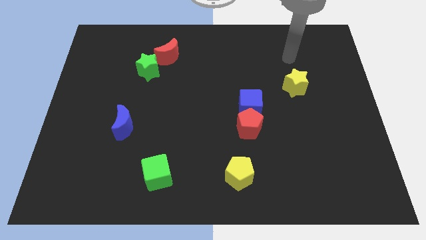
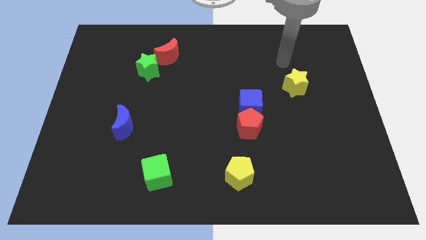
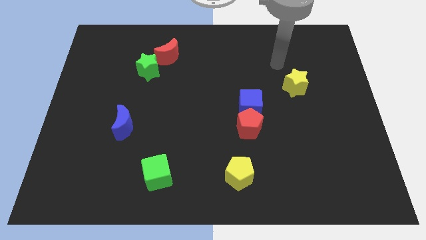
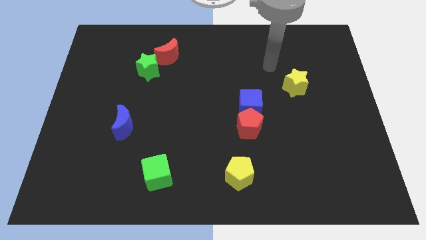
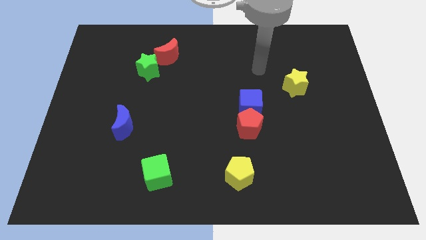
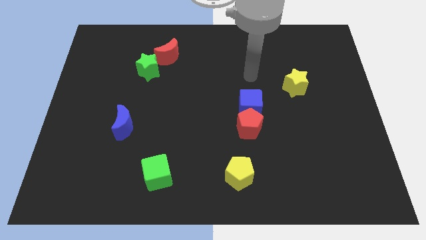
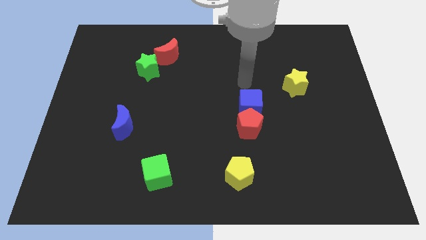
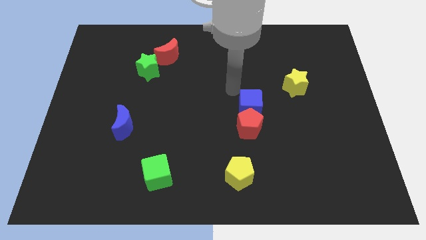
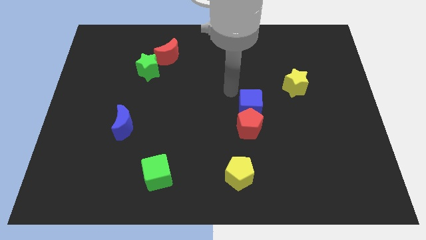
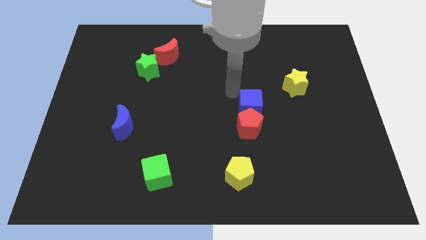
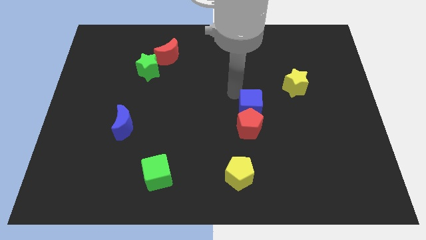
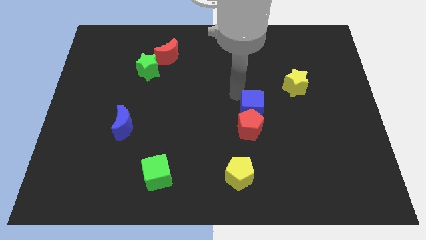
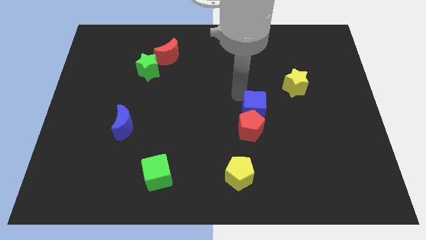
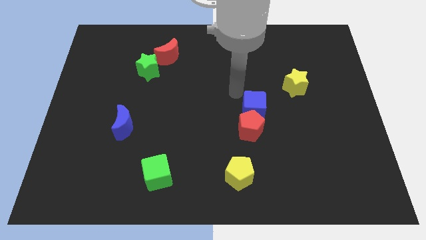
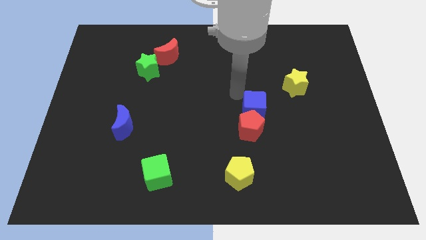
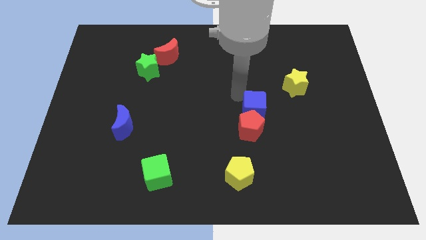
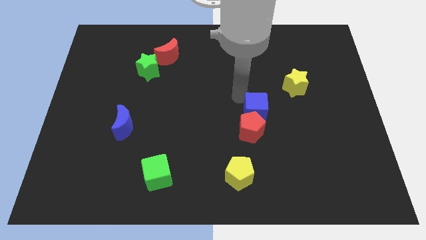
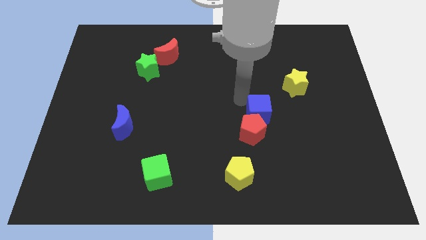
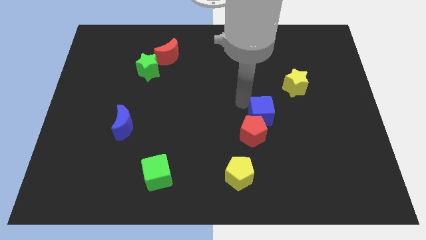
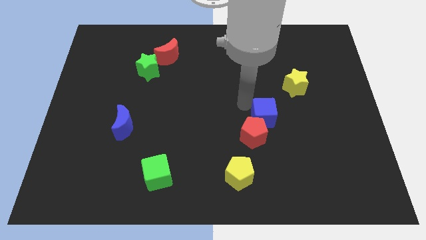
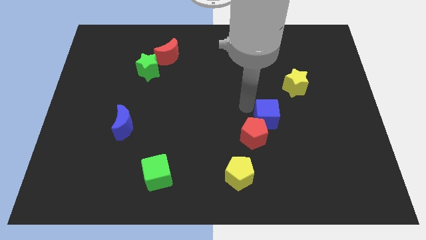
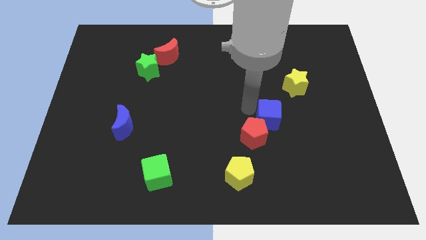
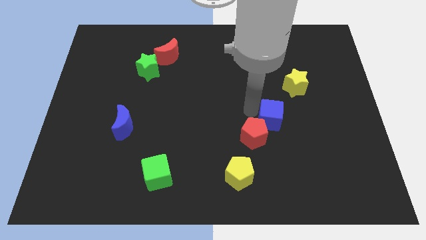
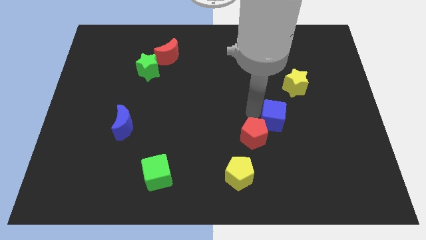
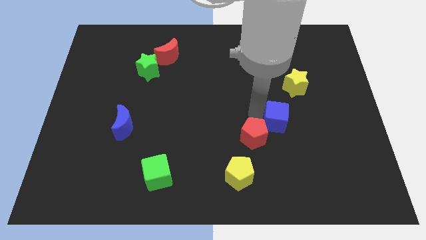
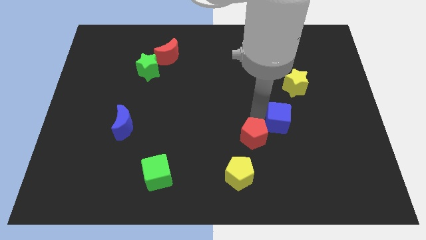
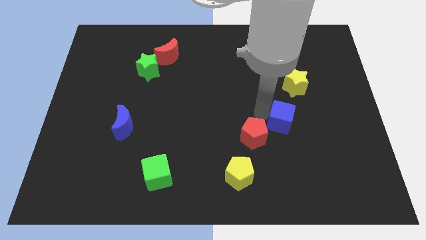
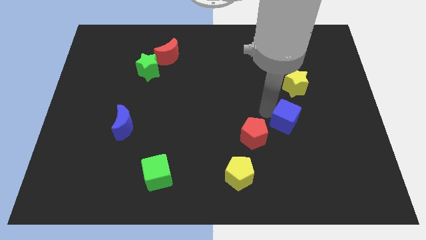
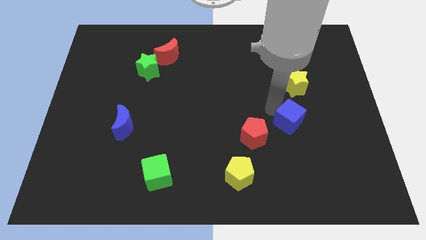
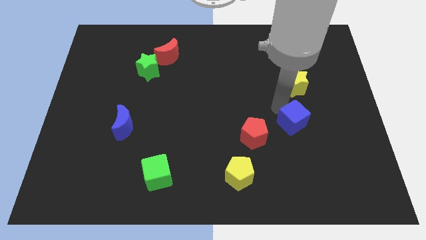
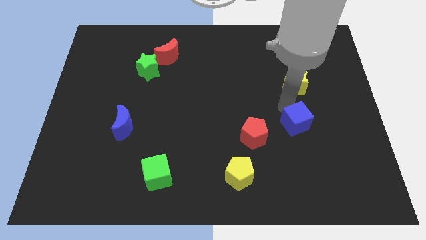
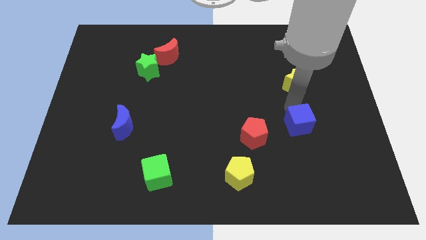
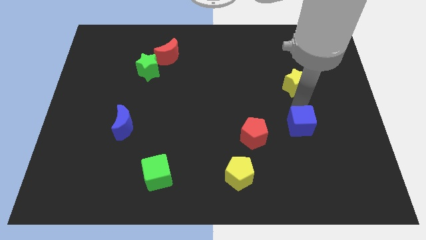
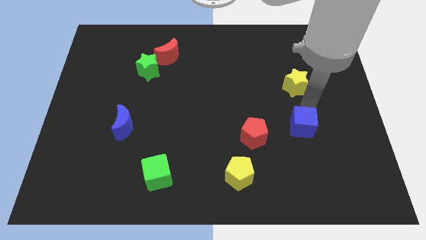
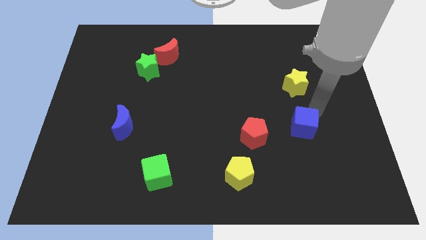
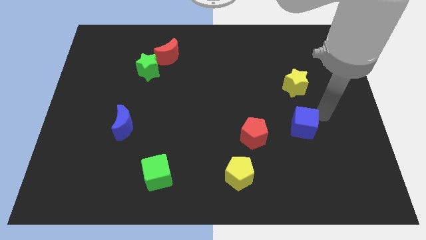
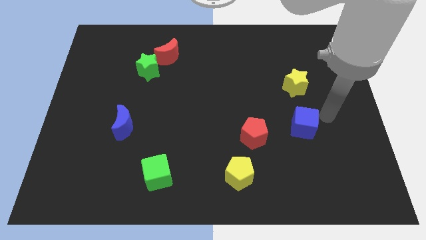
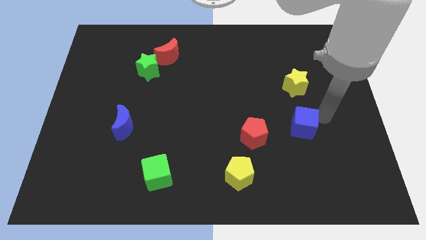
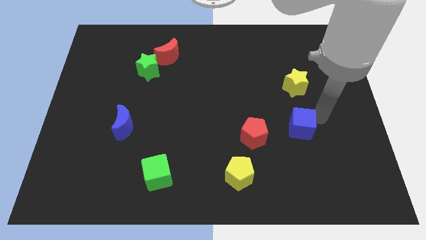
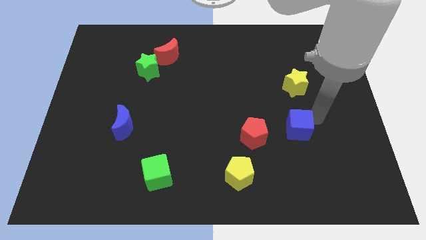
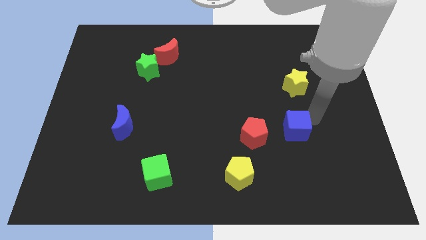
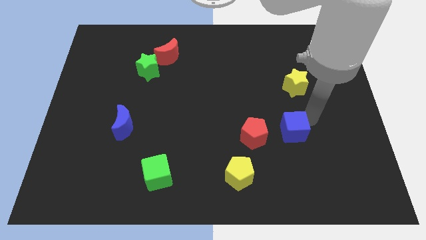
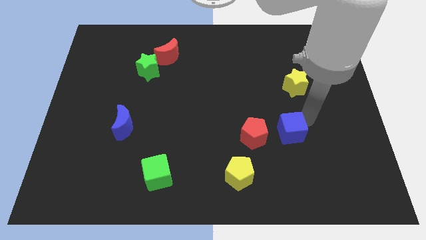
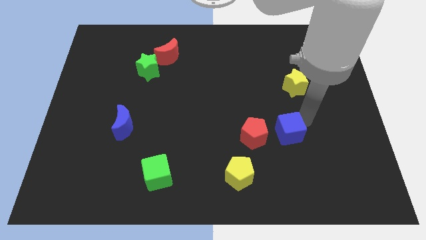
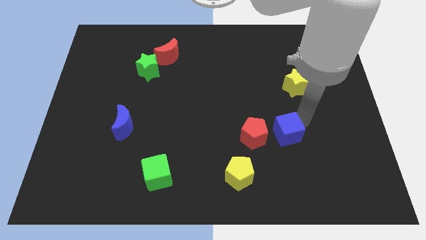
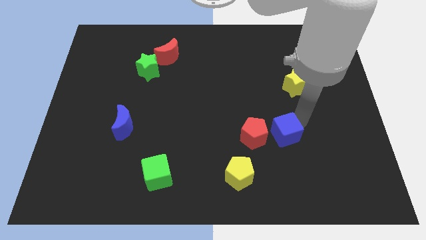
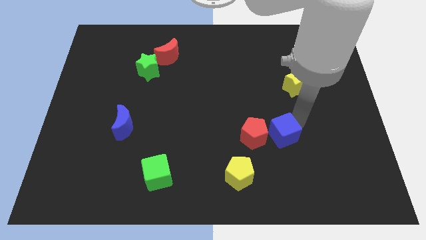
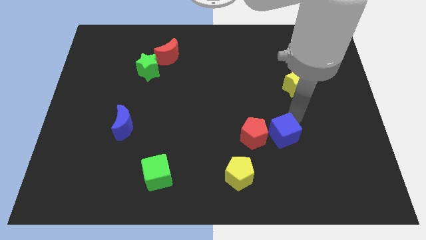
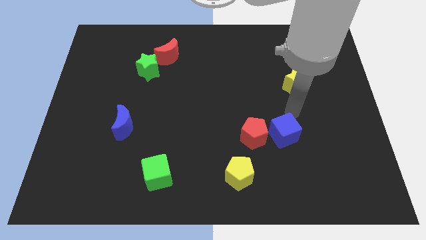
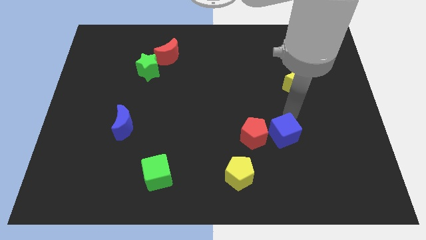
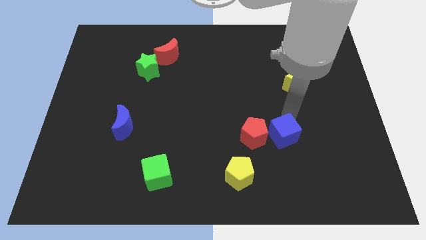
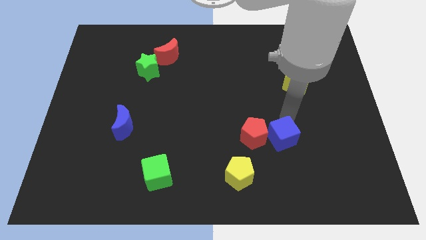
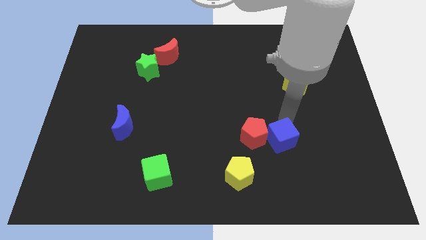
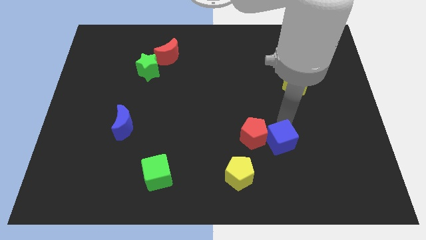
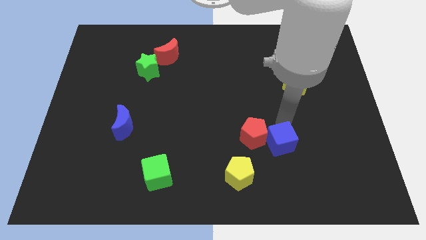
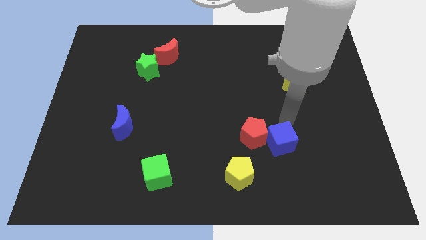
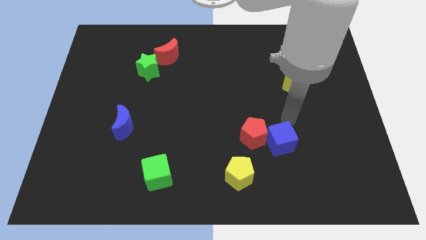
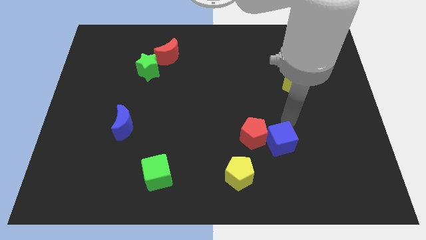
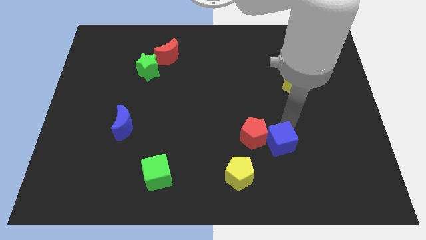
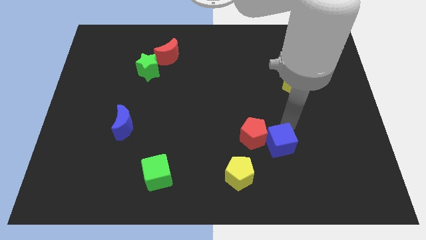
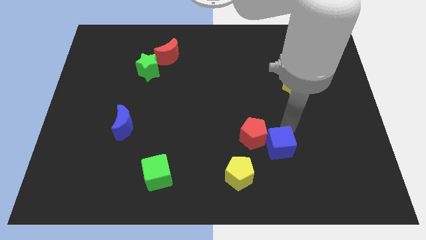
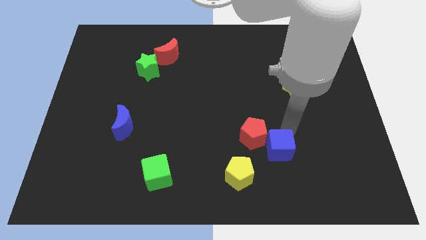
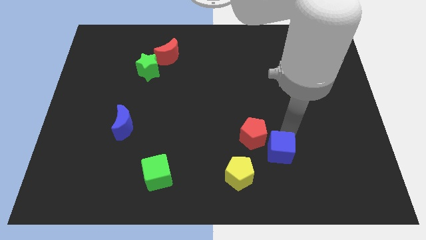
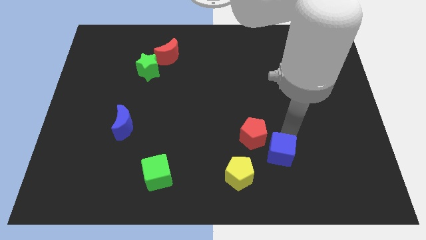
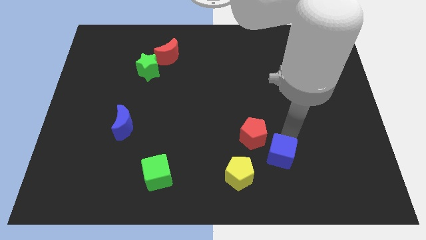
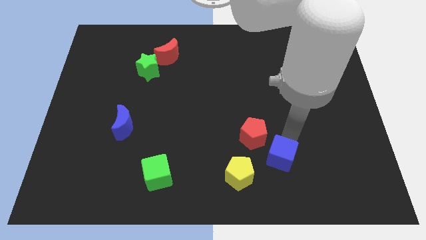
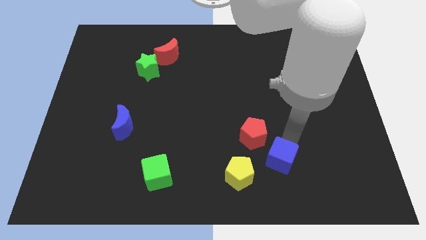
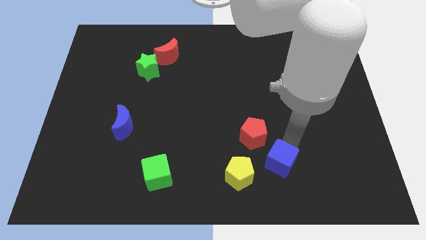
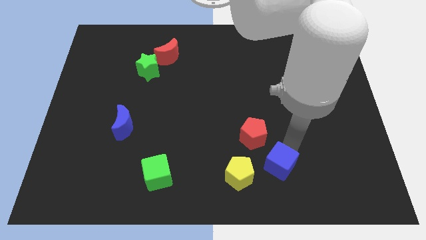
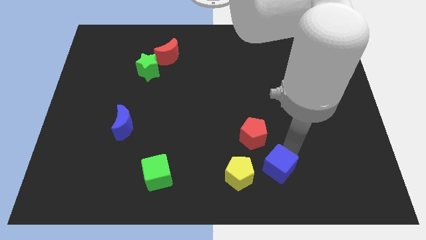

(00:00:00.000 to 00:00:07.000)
put the blue cube below the red pentagon
